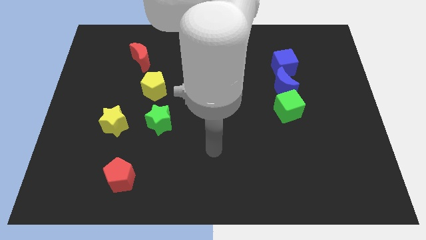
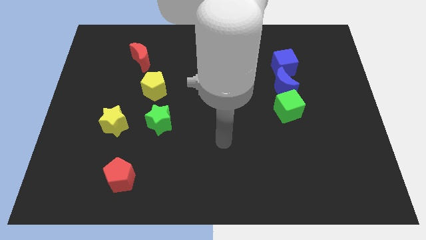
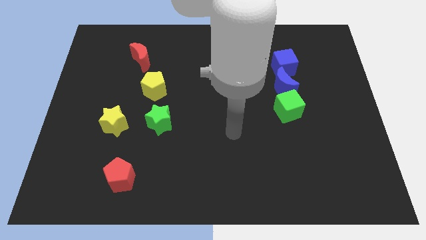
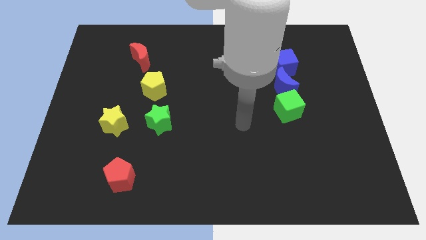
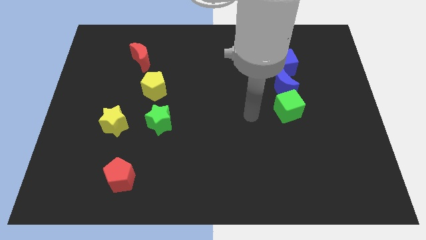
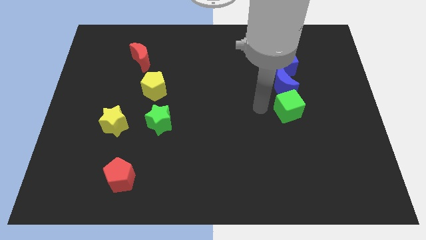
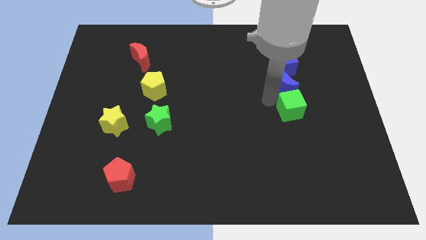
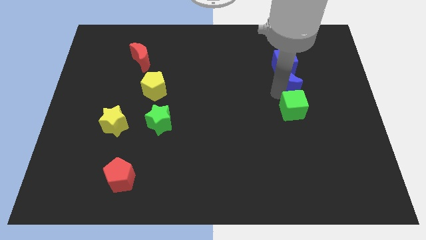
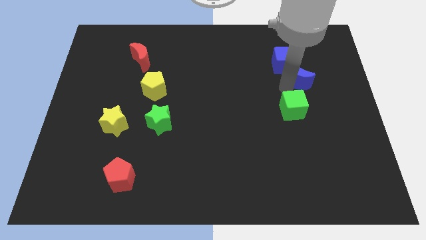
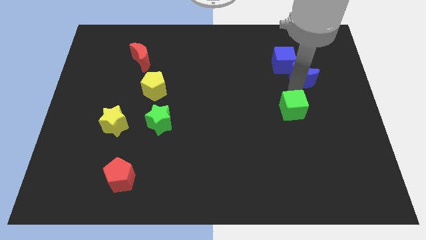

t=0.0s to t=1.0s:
pull the green cube apart from the blue moon

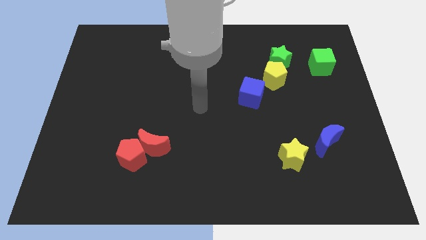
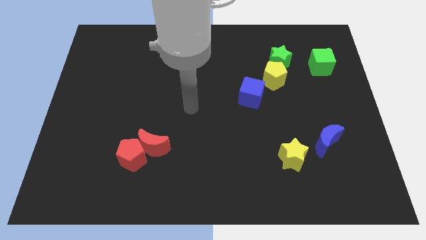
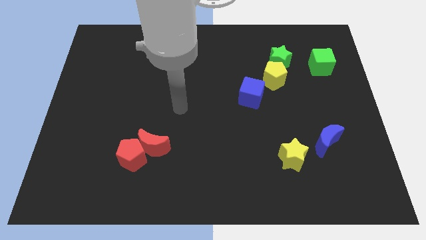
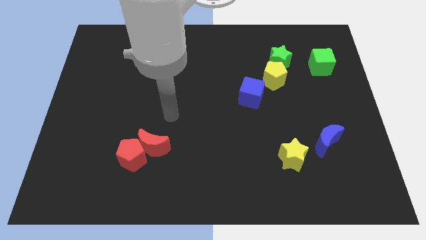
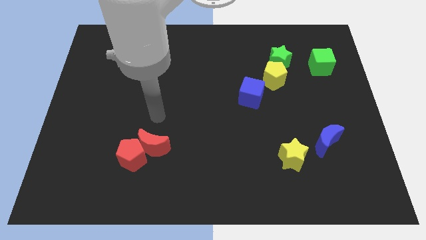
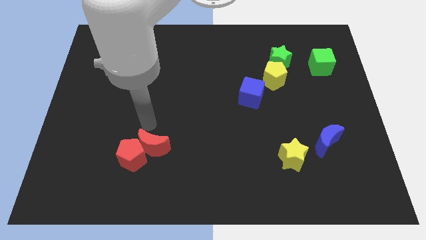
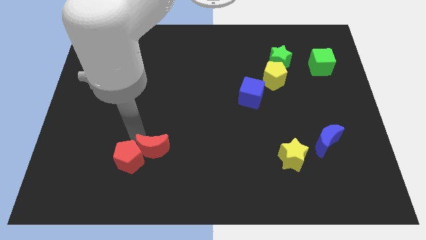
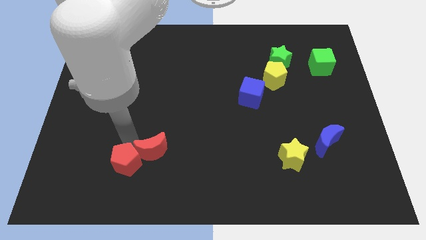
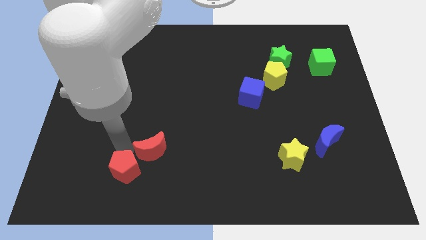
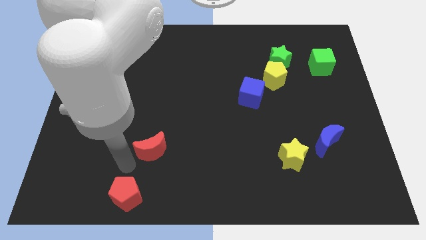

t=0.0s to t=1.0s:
separate the red moon from the red pentagon

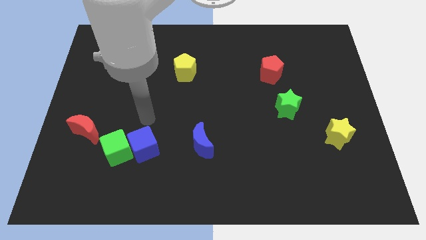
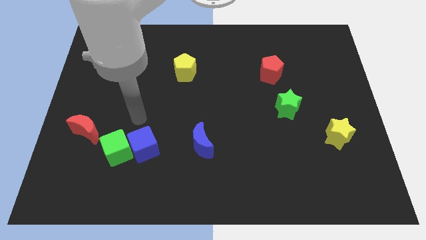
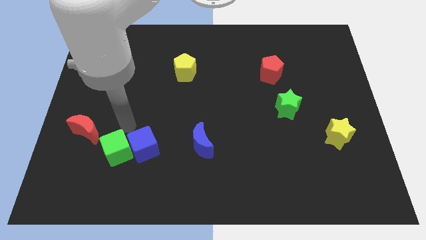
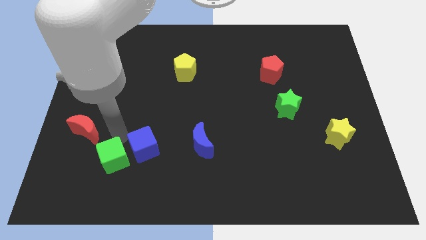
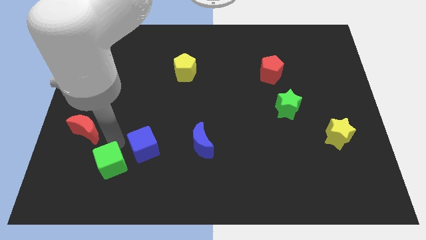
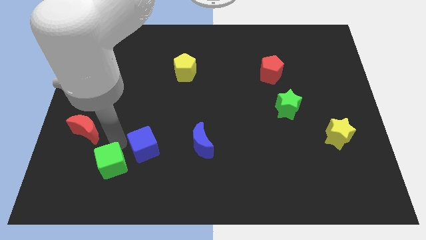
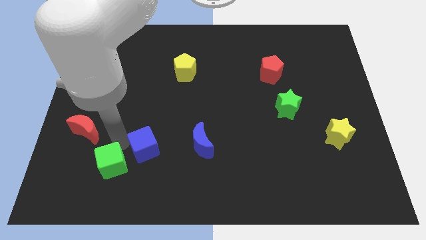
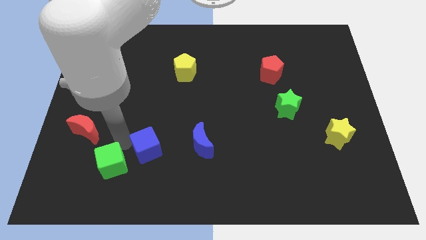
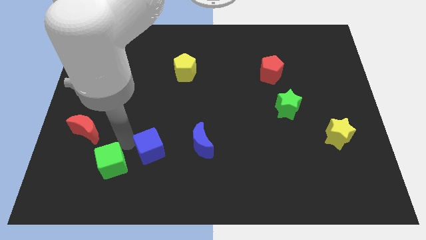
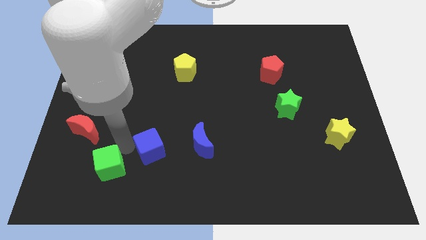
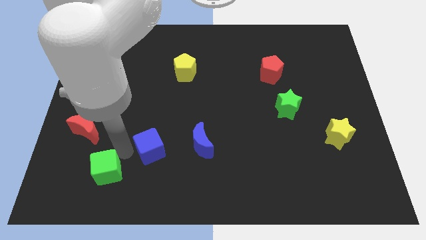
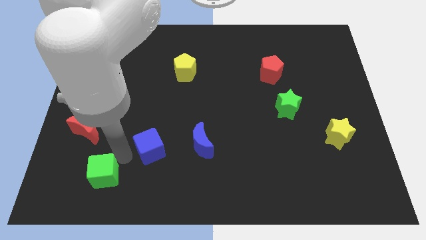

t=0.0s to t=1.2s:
move the blue cube away from the green cube

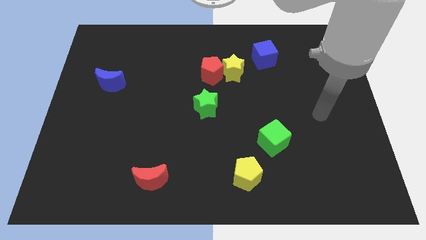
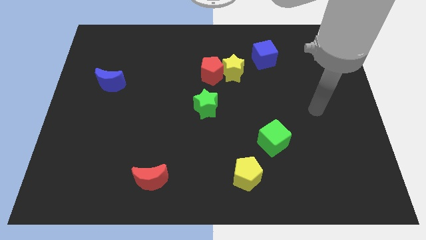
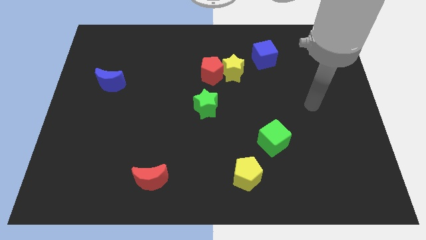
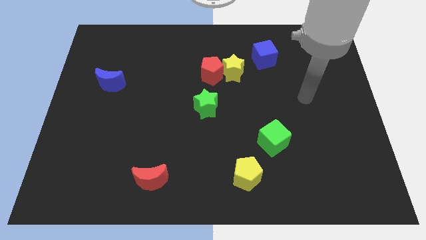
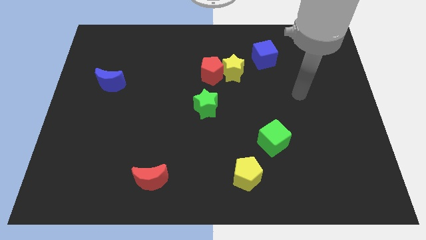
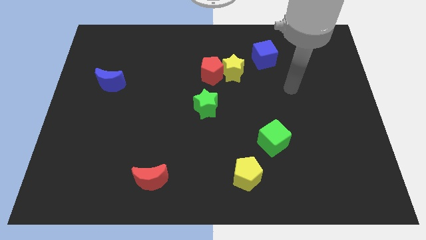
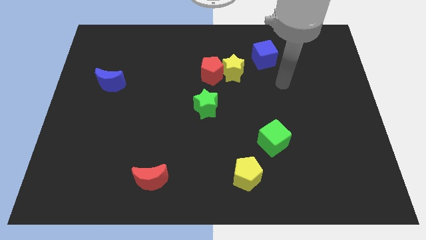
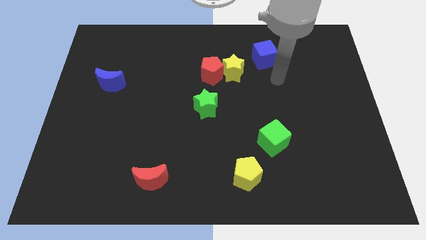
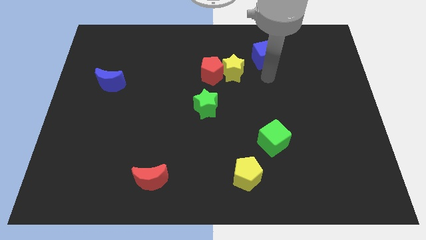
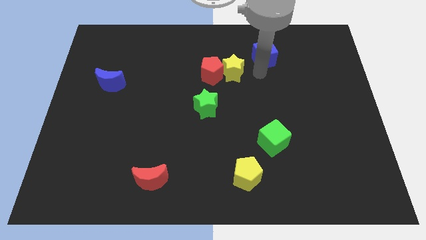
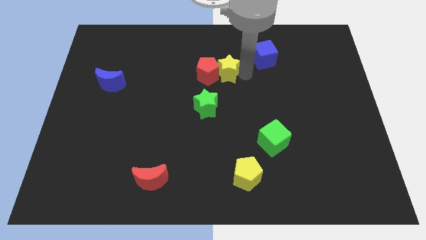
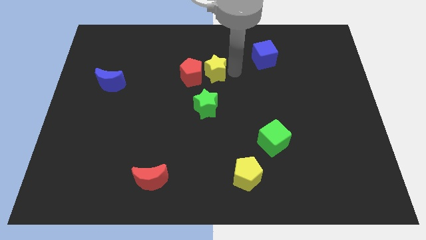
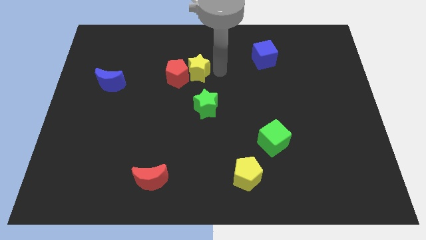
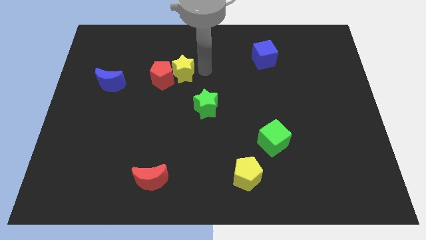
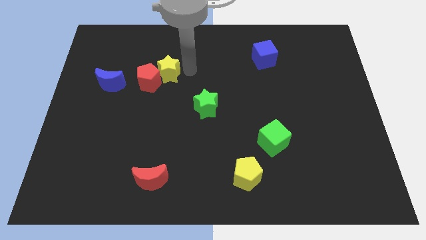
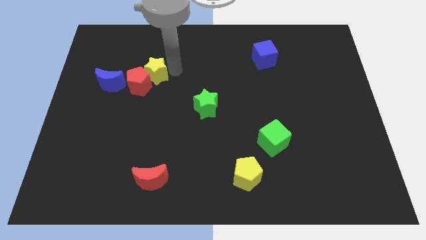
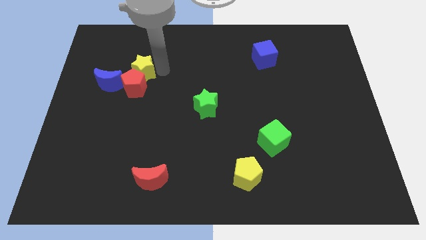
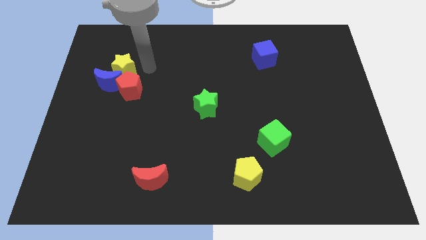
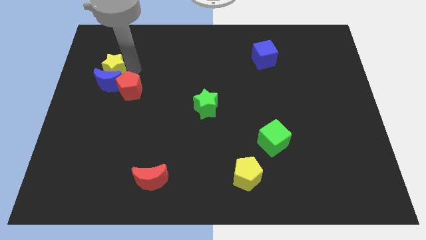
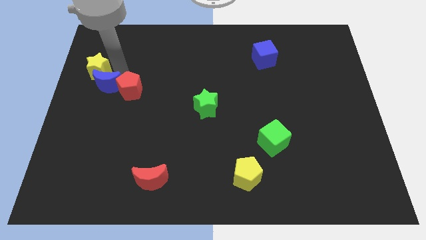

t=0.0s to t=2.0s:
move the red pentagon away from the yellow star

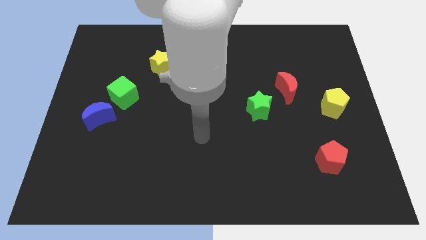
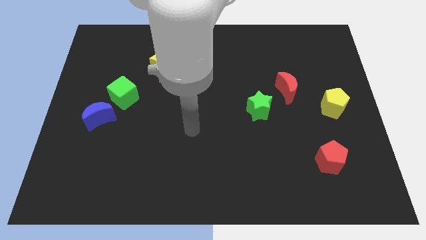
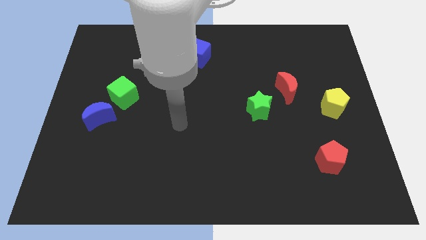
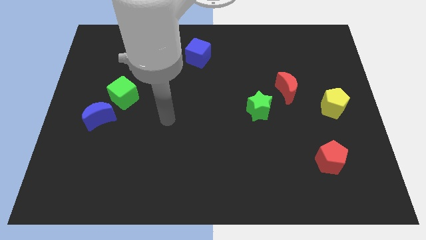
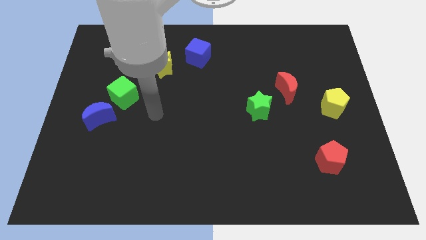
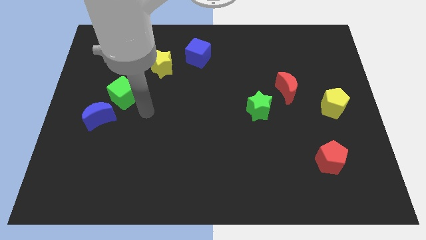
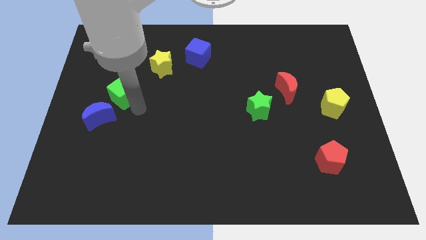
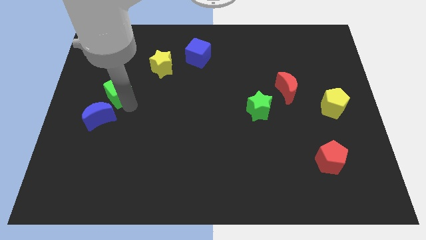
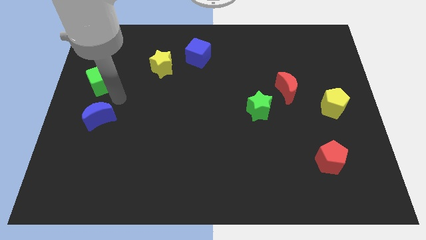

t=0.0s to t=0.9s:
pull the blue moon apart from the green cube

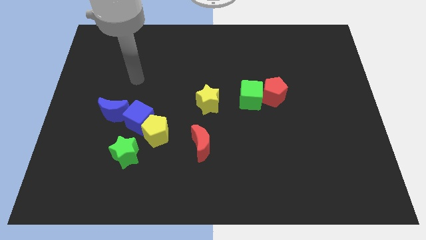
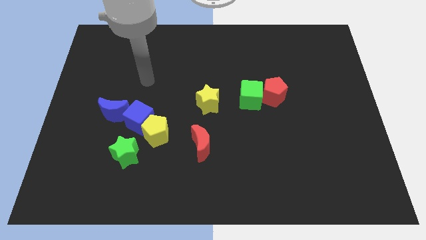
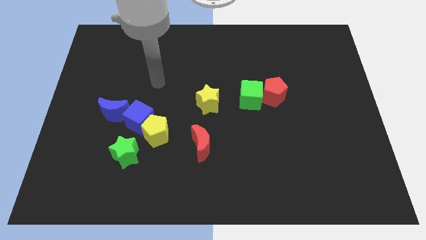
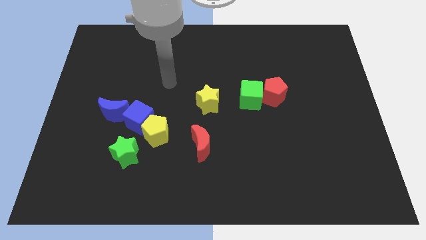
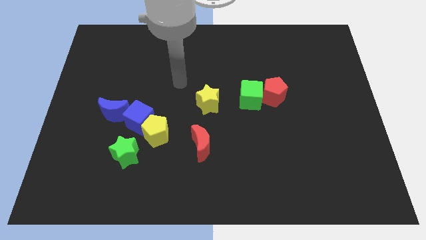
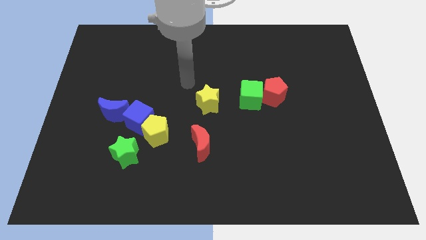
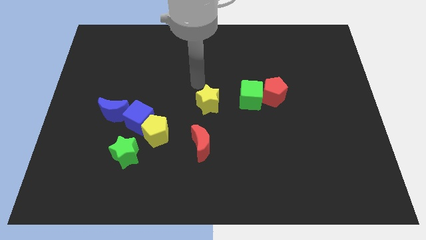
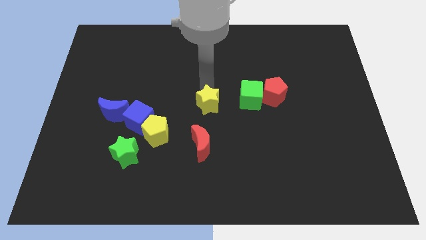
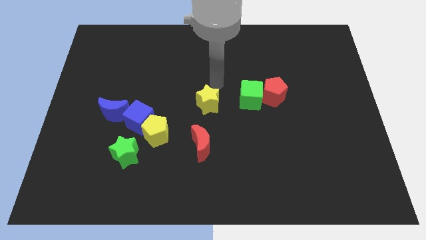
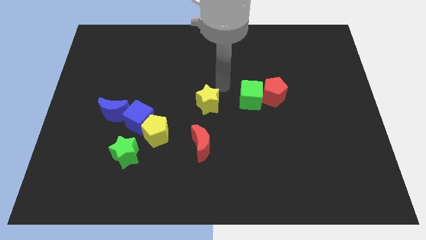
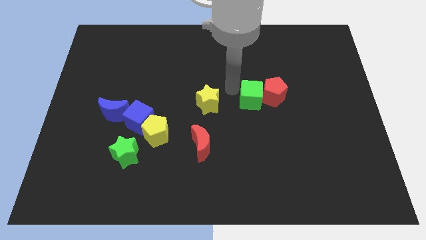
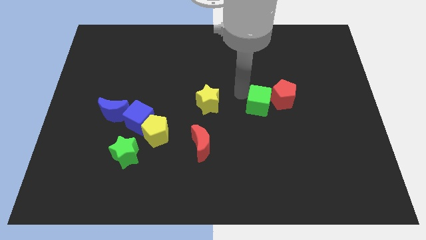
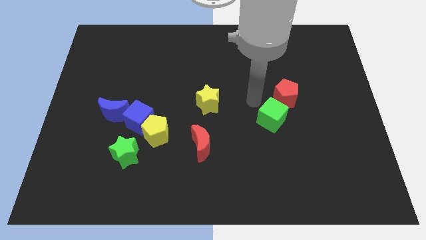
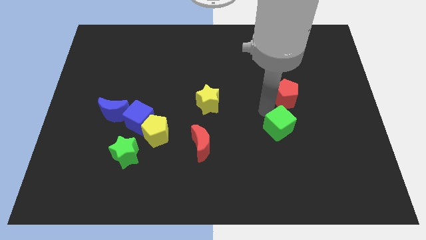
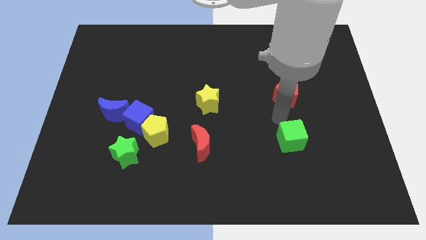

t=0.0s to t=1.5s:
move the red pentagon away from the green cube

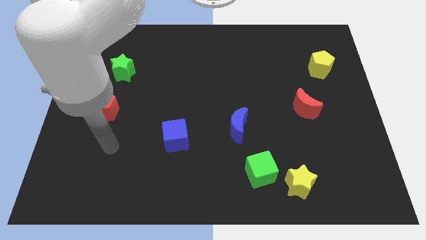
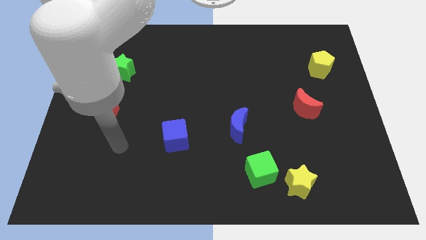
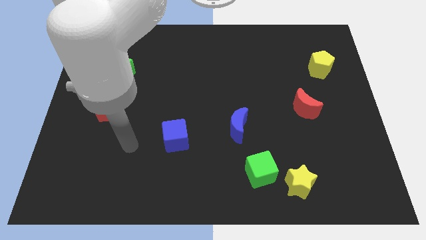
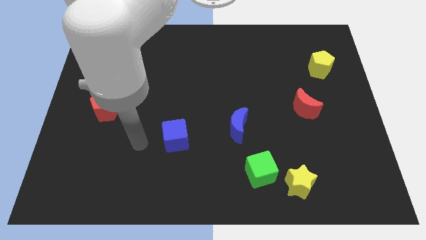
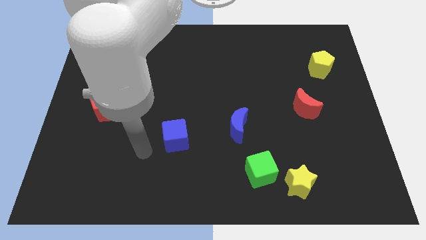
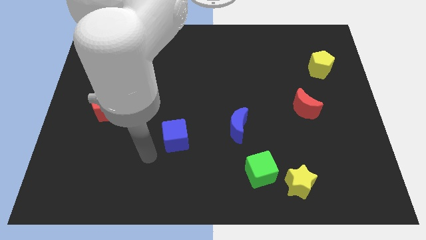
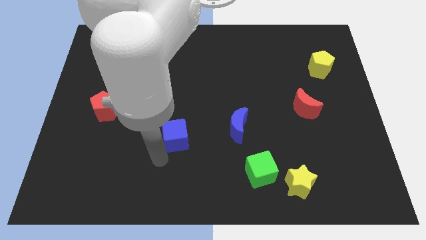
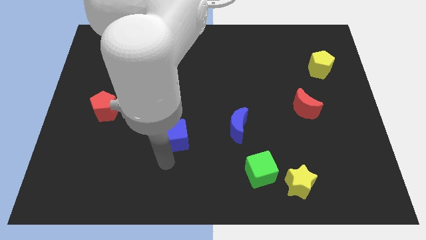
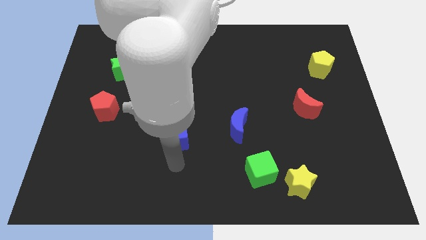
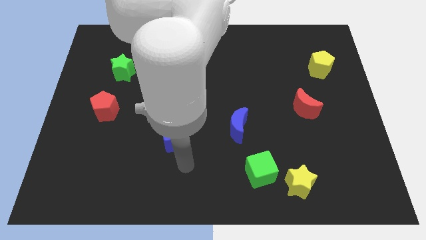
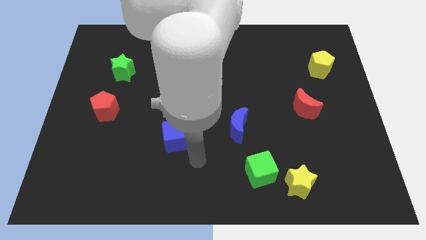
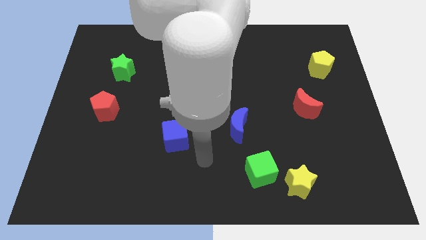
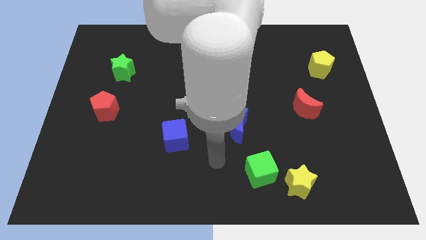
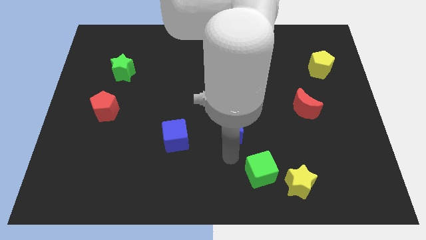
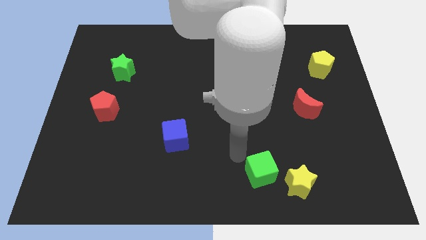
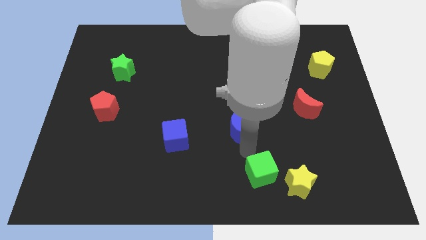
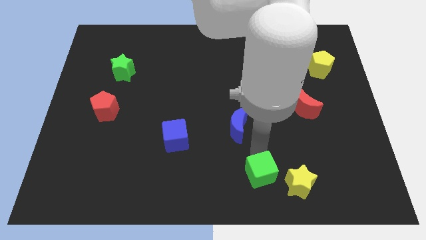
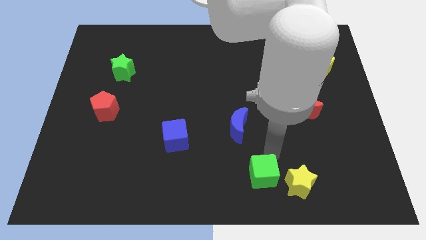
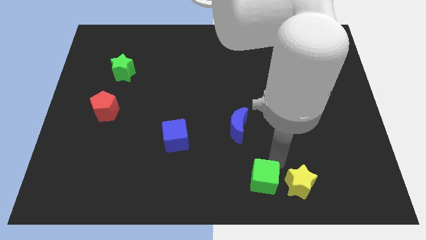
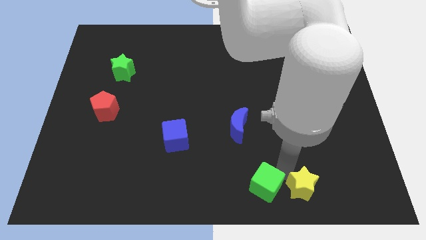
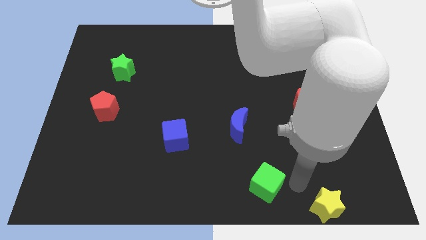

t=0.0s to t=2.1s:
move the green cube away from the yellow star
